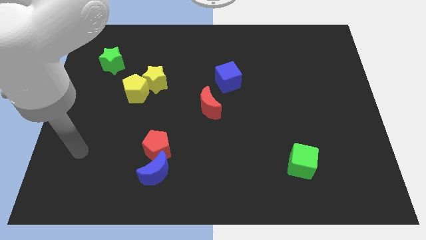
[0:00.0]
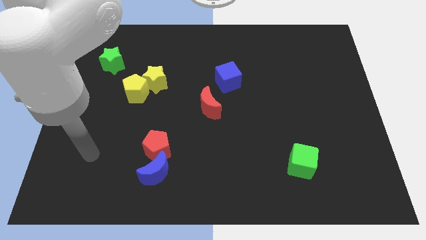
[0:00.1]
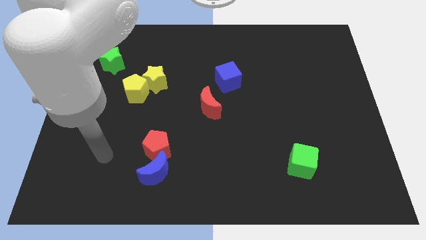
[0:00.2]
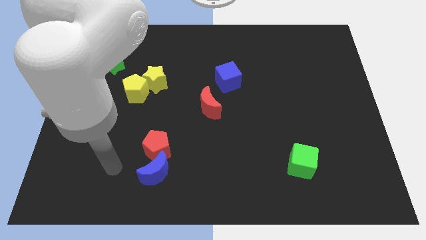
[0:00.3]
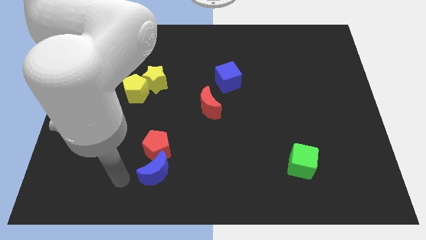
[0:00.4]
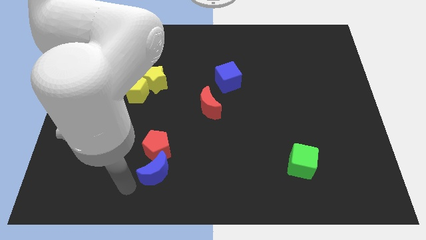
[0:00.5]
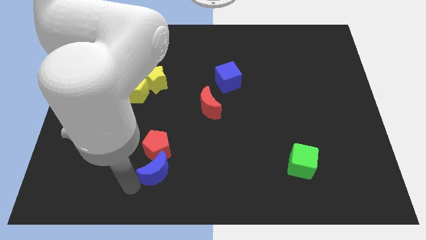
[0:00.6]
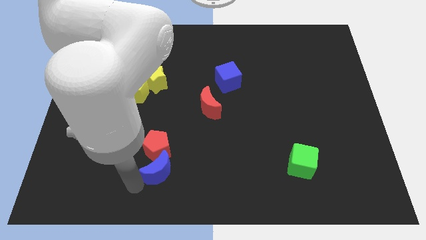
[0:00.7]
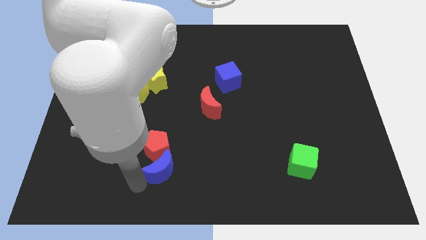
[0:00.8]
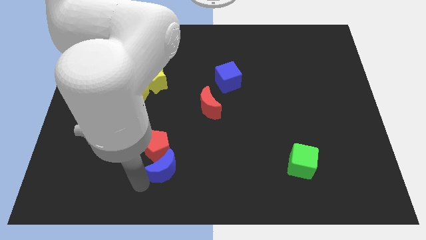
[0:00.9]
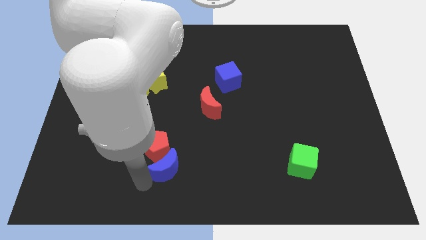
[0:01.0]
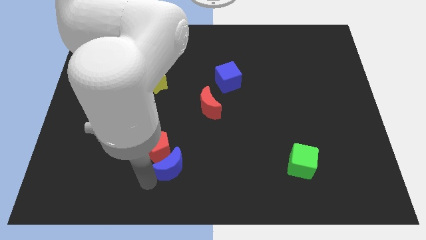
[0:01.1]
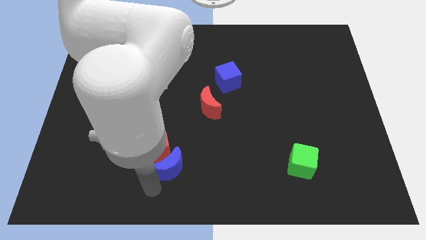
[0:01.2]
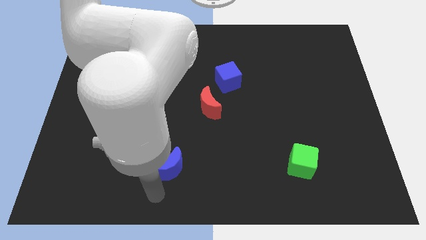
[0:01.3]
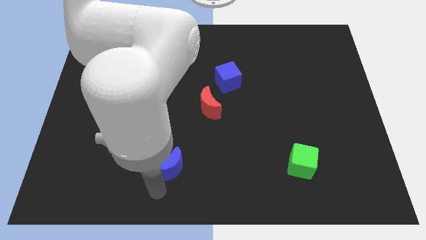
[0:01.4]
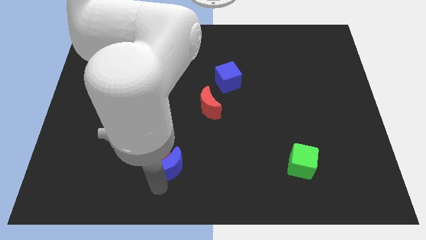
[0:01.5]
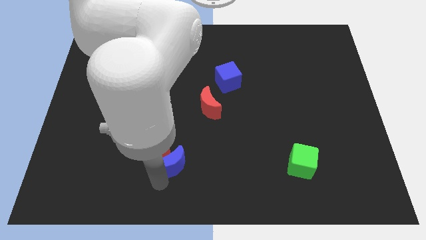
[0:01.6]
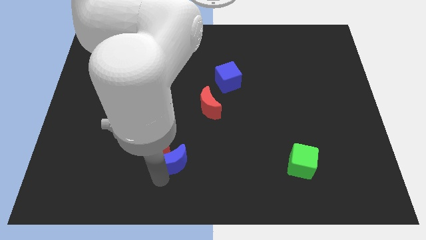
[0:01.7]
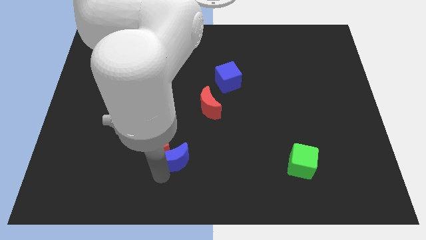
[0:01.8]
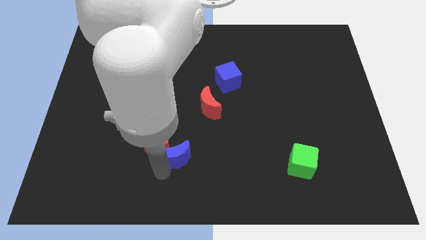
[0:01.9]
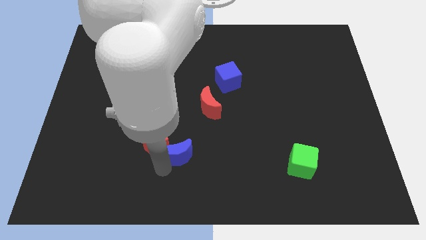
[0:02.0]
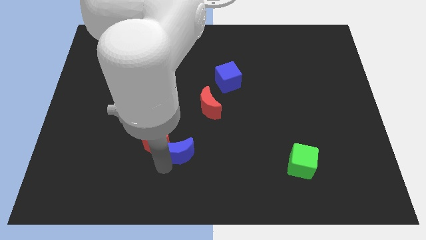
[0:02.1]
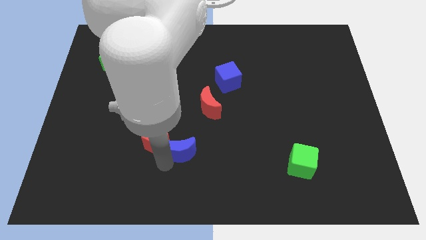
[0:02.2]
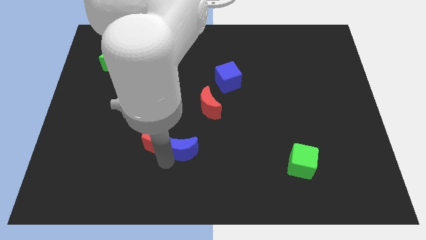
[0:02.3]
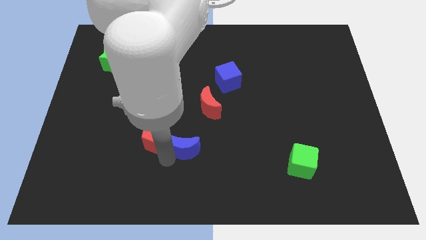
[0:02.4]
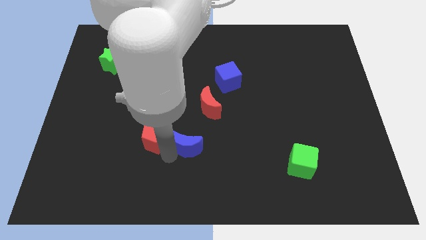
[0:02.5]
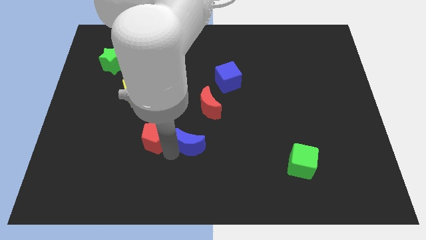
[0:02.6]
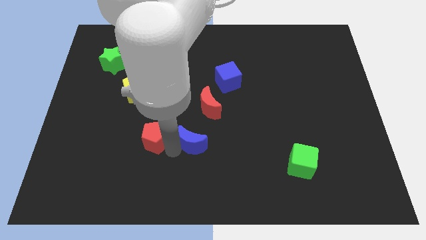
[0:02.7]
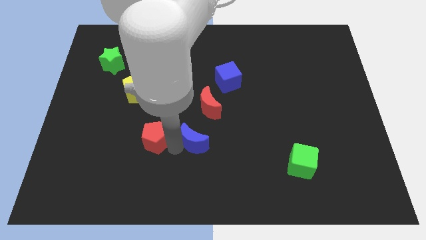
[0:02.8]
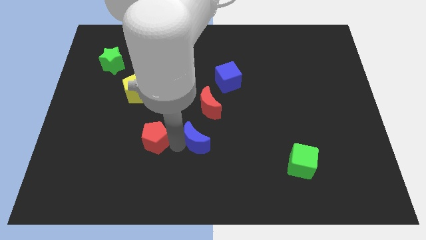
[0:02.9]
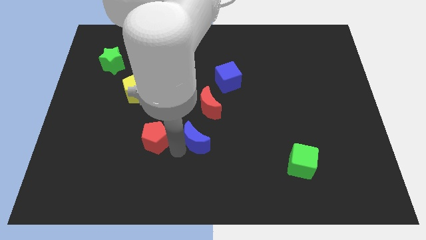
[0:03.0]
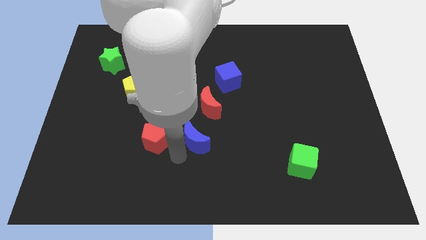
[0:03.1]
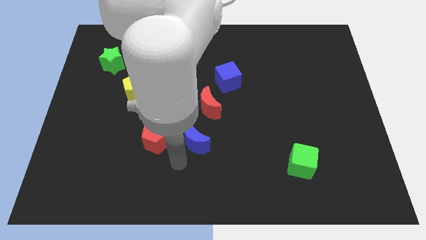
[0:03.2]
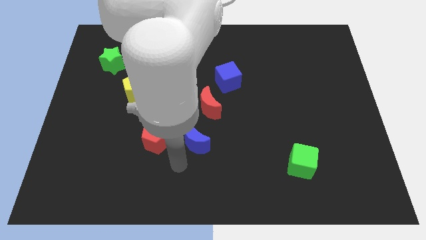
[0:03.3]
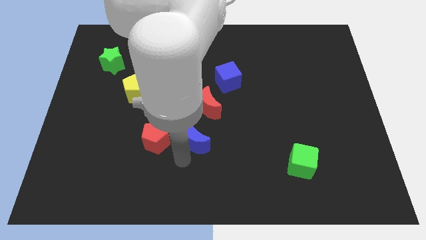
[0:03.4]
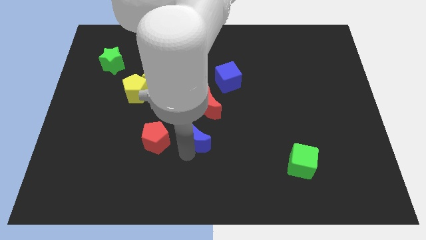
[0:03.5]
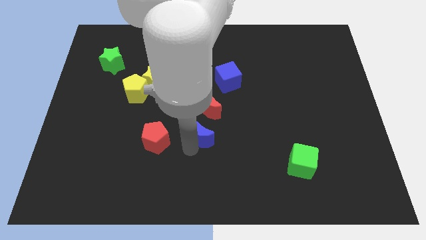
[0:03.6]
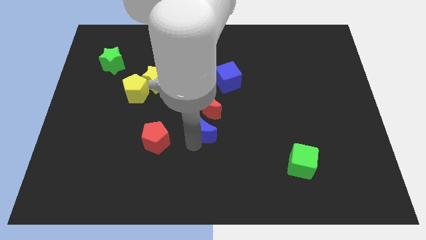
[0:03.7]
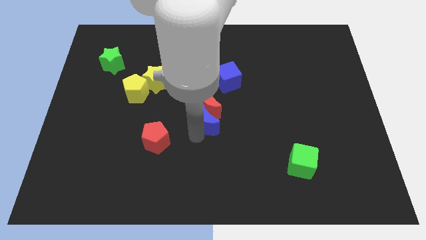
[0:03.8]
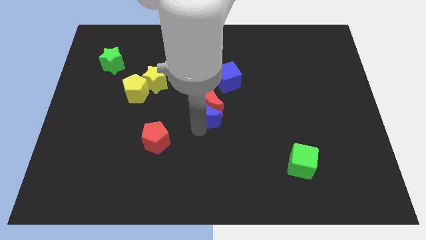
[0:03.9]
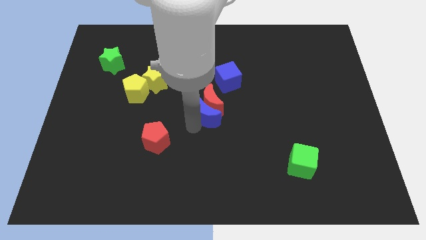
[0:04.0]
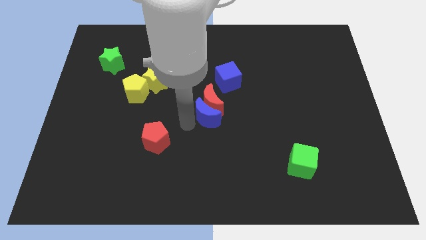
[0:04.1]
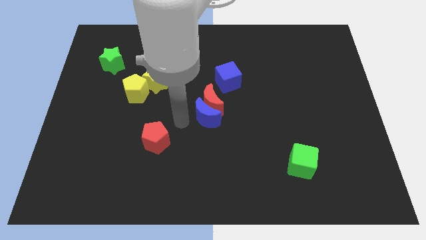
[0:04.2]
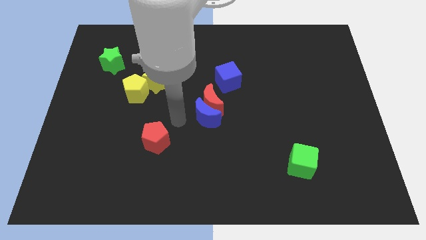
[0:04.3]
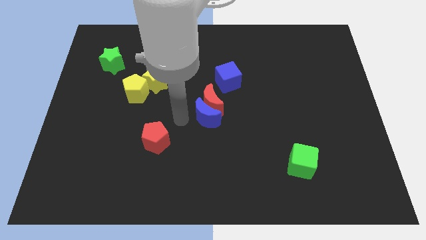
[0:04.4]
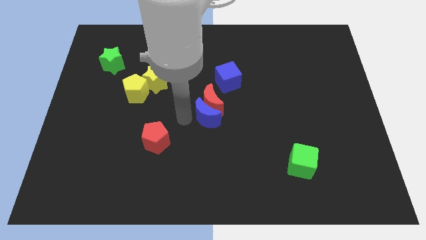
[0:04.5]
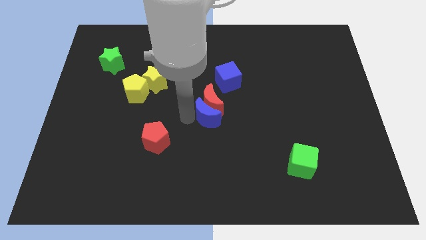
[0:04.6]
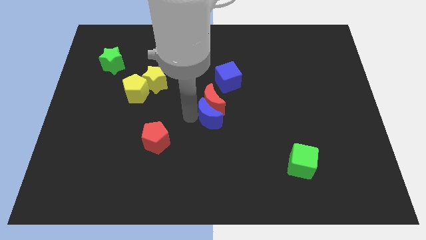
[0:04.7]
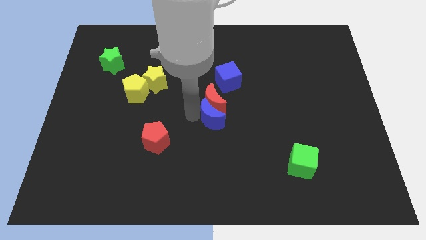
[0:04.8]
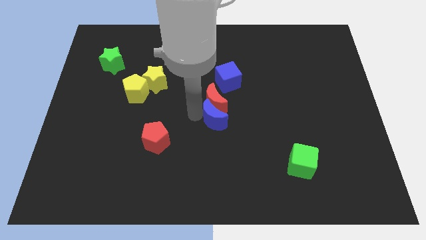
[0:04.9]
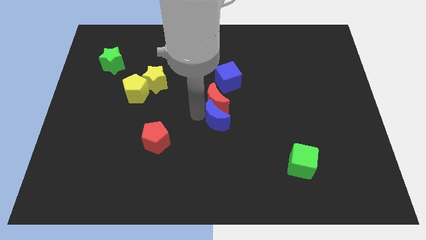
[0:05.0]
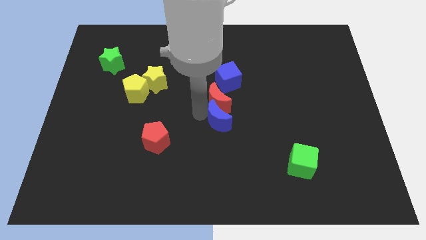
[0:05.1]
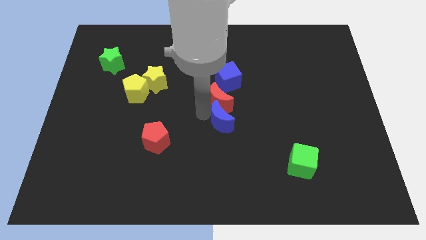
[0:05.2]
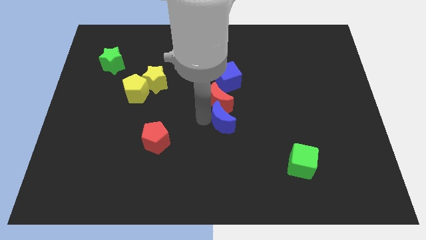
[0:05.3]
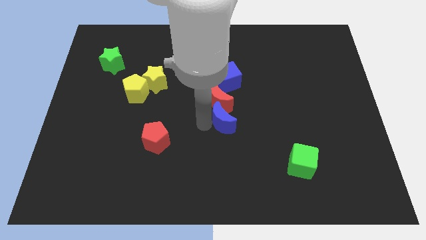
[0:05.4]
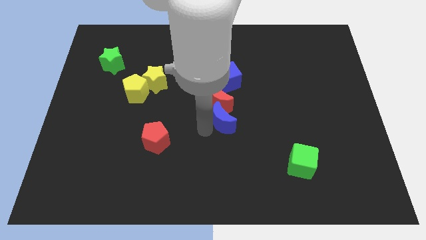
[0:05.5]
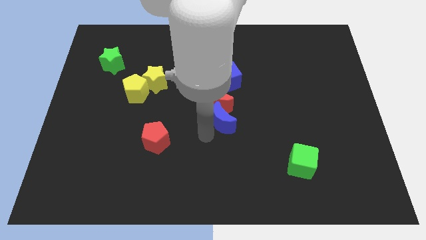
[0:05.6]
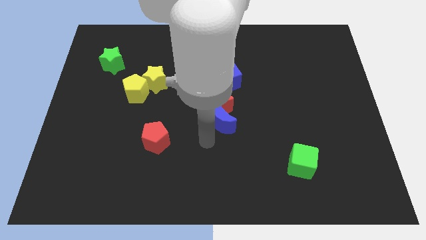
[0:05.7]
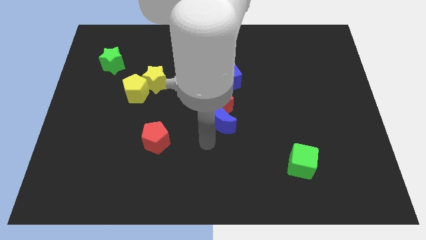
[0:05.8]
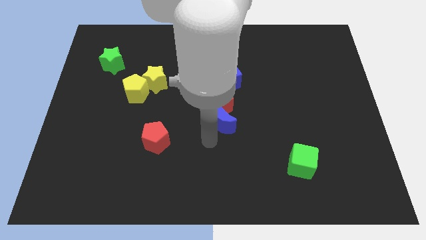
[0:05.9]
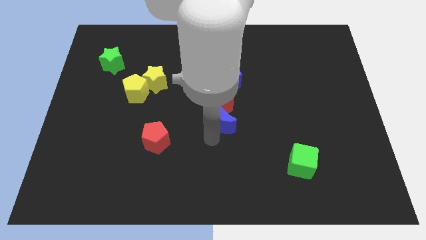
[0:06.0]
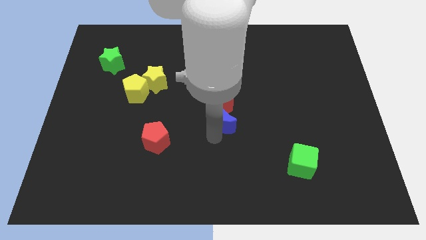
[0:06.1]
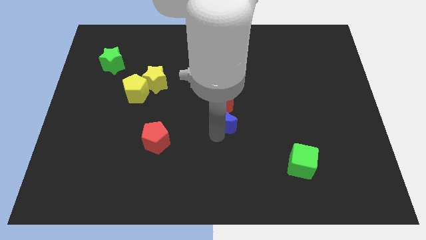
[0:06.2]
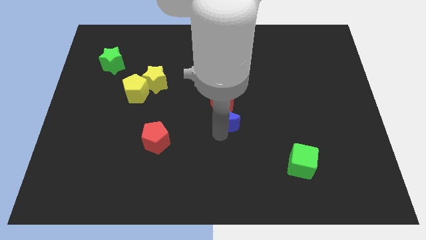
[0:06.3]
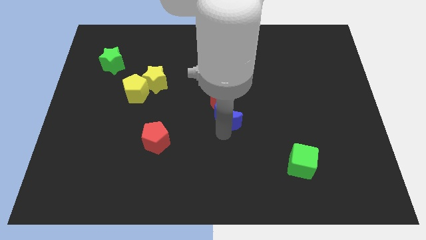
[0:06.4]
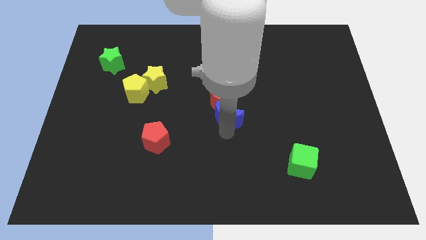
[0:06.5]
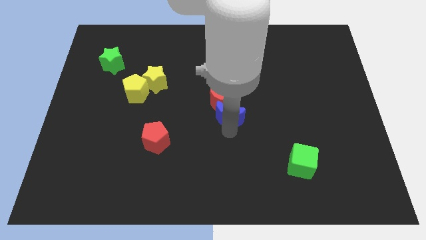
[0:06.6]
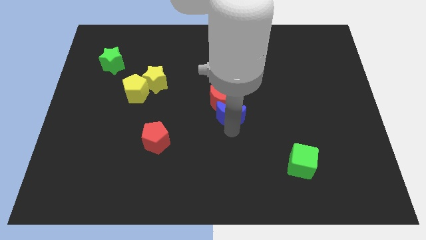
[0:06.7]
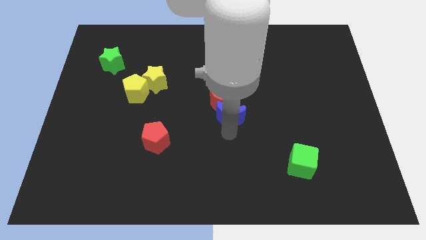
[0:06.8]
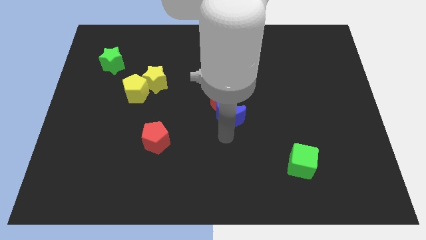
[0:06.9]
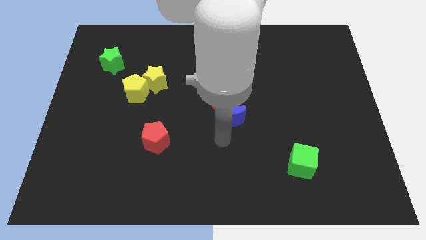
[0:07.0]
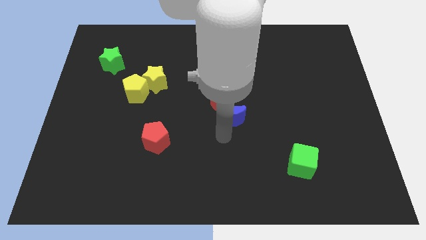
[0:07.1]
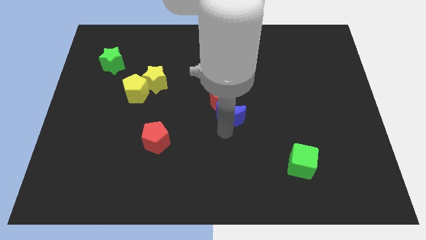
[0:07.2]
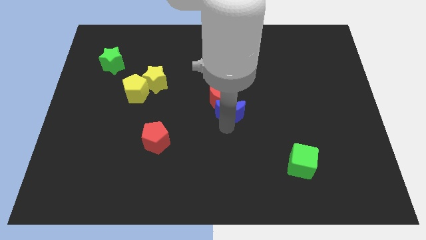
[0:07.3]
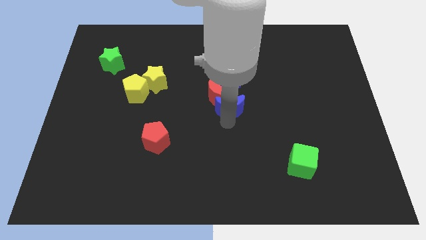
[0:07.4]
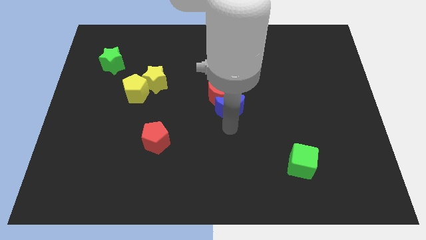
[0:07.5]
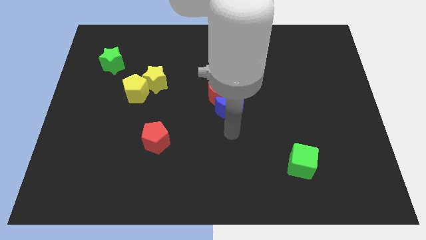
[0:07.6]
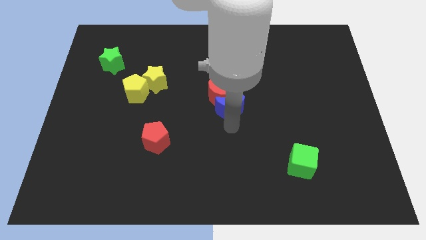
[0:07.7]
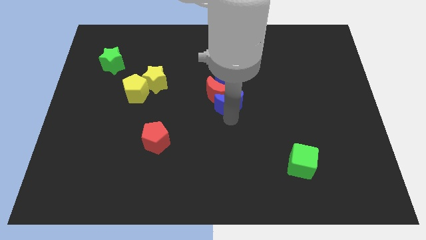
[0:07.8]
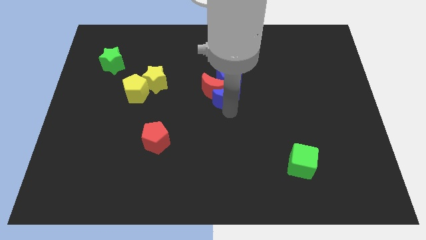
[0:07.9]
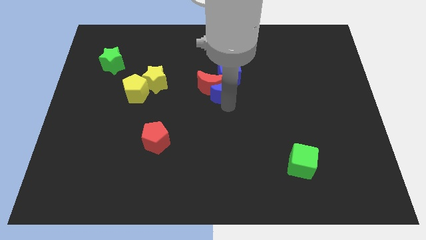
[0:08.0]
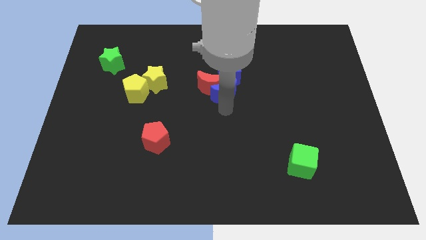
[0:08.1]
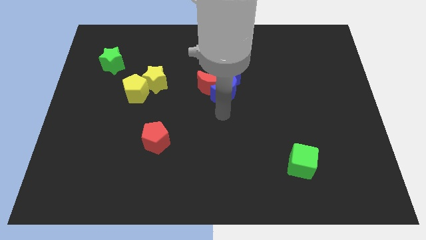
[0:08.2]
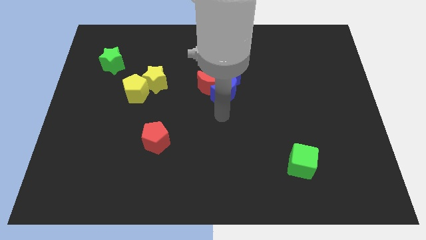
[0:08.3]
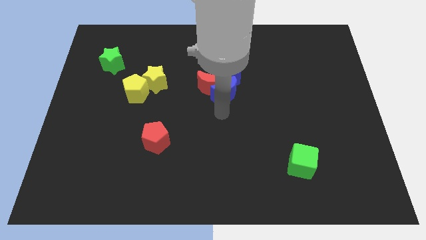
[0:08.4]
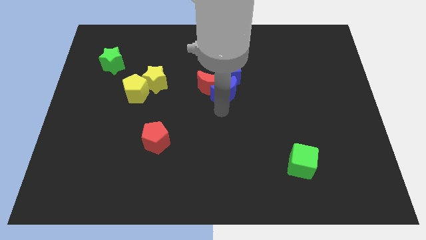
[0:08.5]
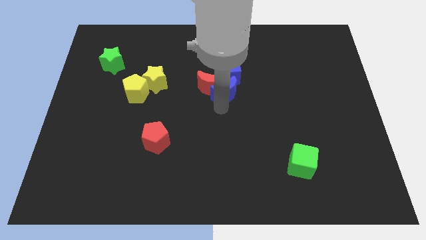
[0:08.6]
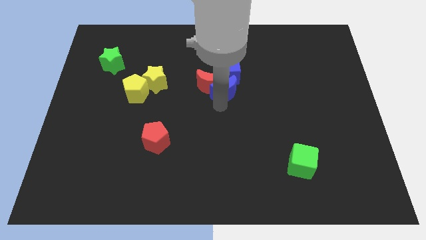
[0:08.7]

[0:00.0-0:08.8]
slide the blue moon towards the blue cube
